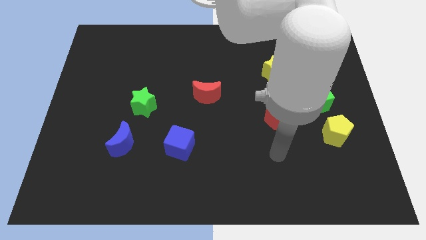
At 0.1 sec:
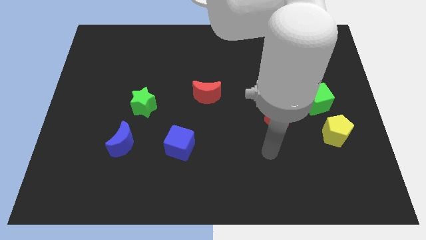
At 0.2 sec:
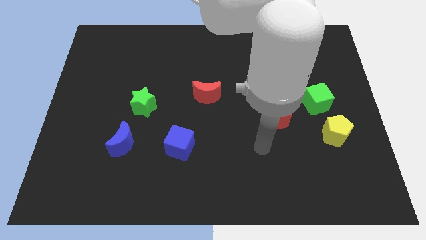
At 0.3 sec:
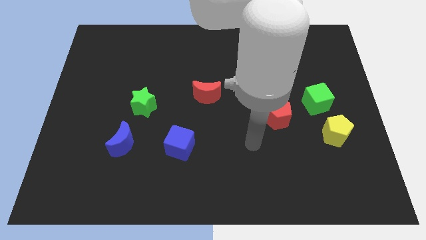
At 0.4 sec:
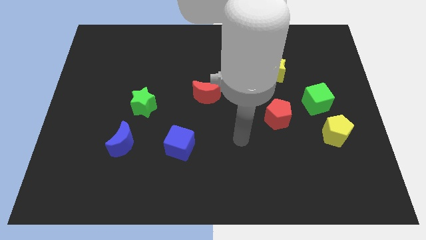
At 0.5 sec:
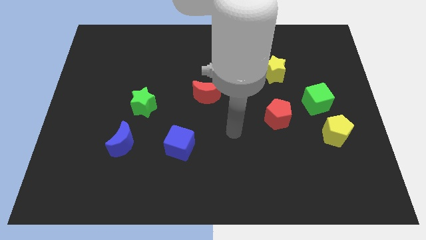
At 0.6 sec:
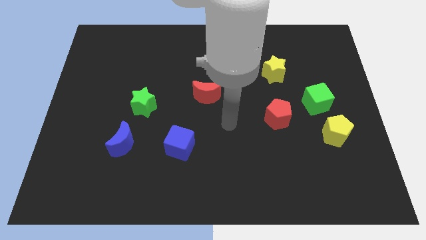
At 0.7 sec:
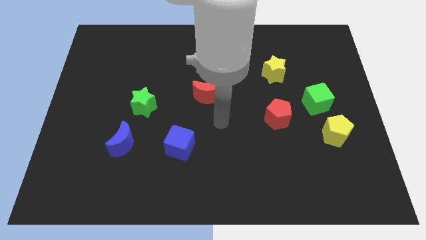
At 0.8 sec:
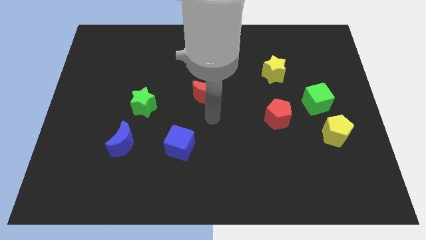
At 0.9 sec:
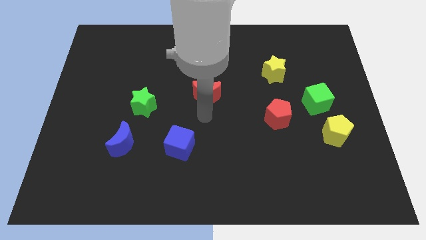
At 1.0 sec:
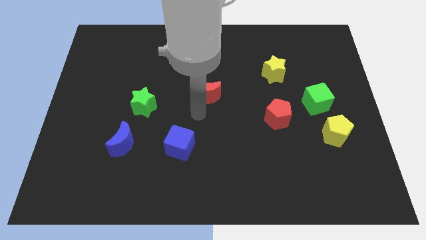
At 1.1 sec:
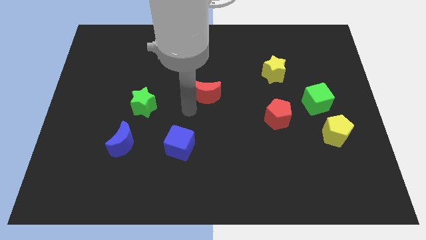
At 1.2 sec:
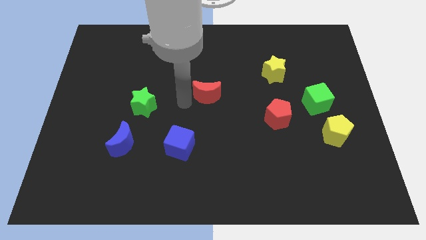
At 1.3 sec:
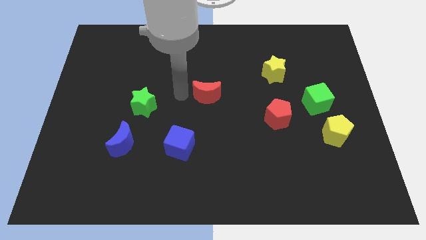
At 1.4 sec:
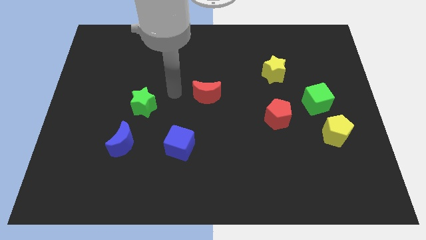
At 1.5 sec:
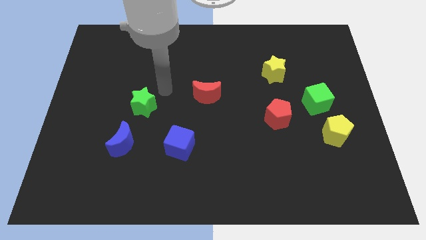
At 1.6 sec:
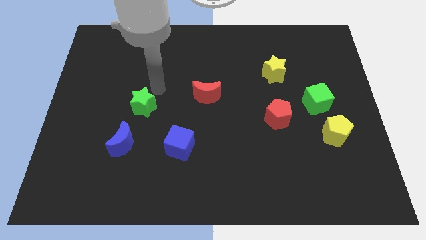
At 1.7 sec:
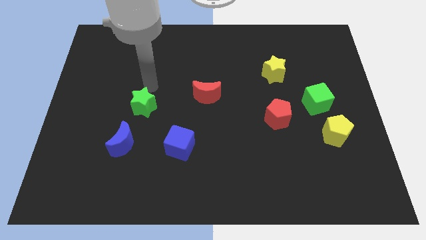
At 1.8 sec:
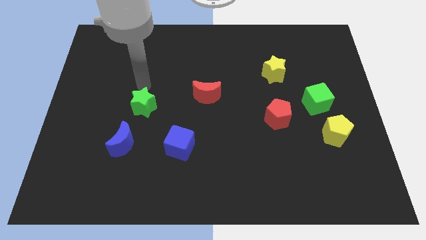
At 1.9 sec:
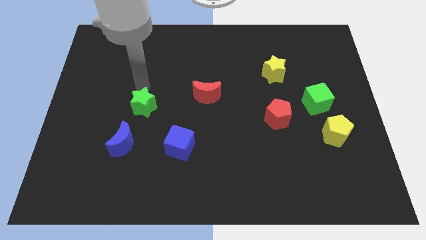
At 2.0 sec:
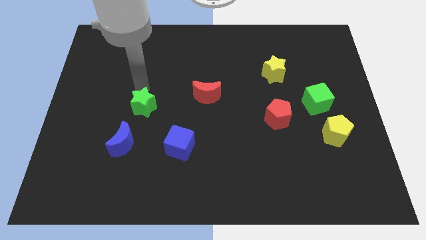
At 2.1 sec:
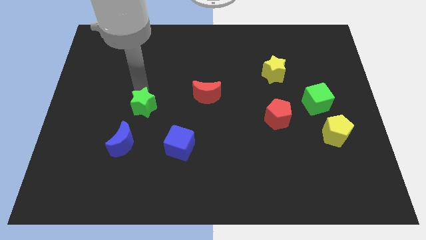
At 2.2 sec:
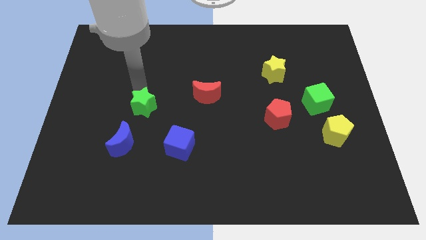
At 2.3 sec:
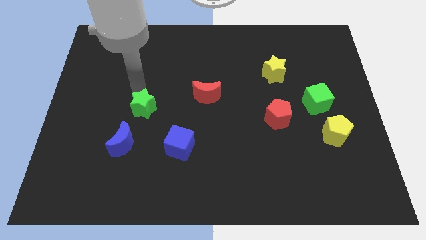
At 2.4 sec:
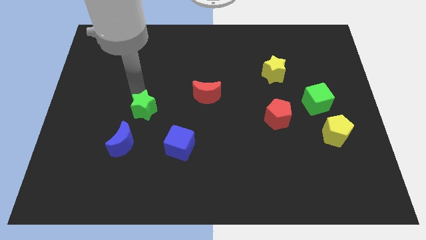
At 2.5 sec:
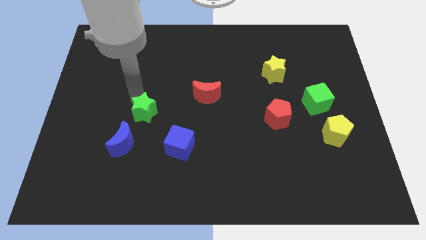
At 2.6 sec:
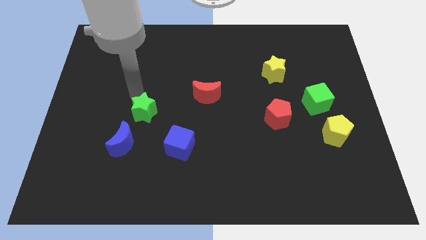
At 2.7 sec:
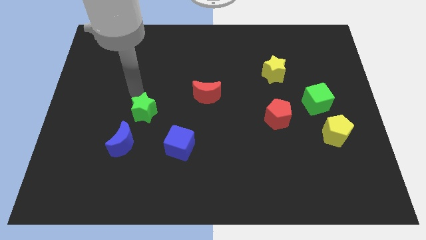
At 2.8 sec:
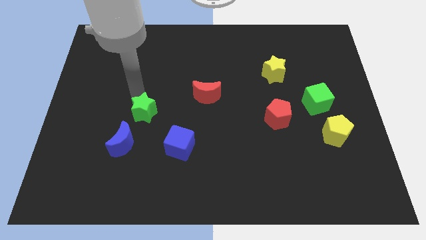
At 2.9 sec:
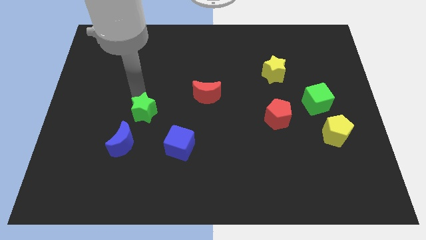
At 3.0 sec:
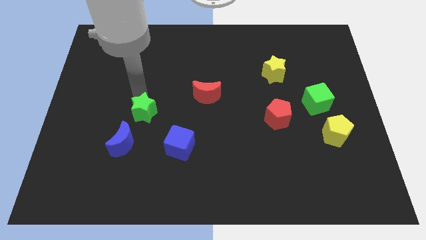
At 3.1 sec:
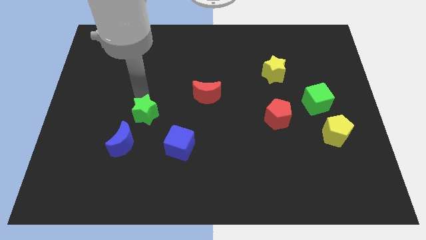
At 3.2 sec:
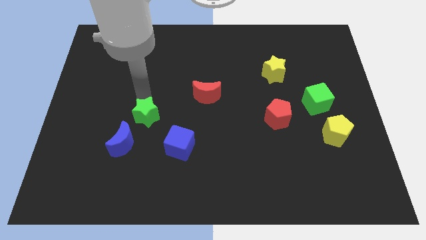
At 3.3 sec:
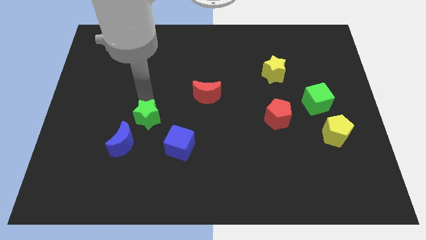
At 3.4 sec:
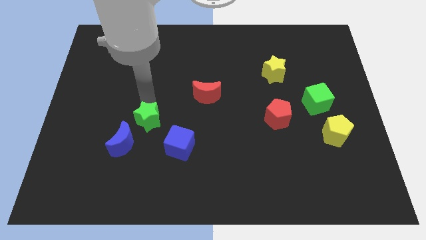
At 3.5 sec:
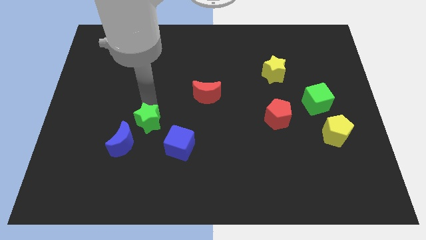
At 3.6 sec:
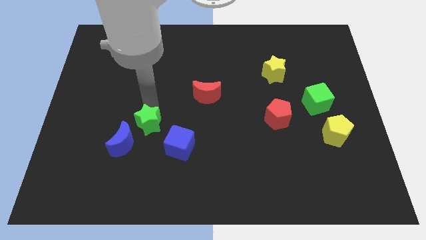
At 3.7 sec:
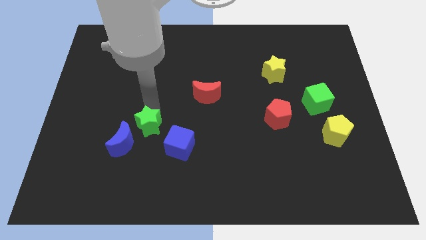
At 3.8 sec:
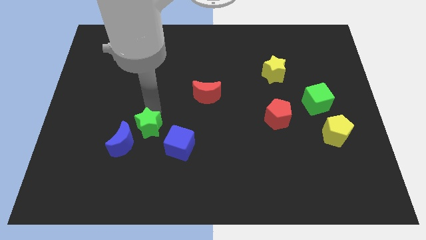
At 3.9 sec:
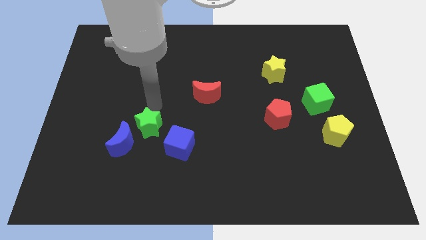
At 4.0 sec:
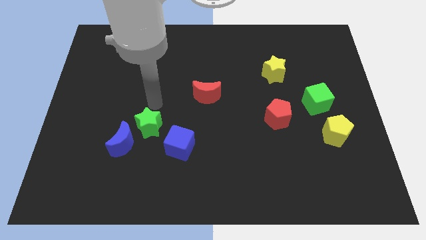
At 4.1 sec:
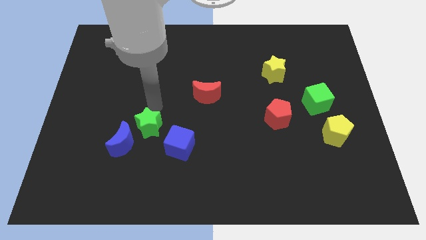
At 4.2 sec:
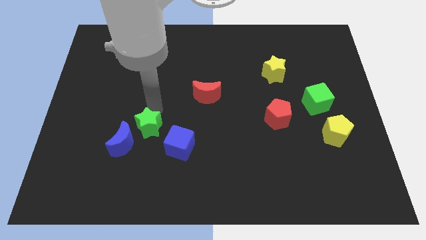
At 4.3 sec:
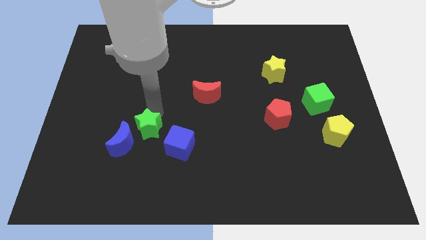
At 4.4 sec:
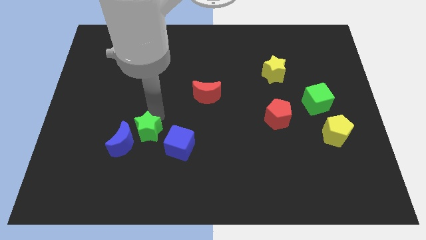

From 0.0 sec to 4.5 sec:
move the green star somewhat downwards

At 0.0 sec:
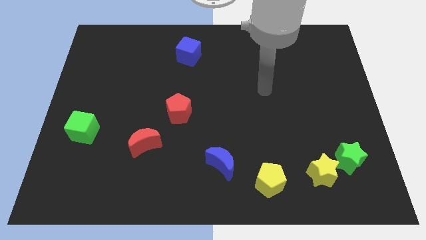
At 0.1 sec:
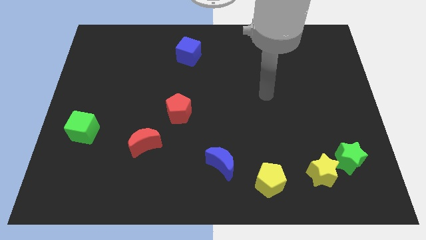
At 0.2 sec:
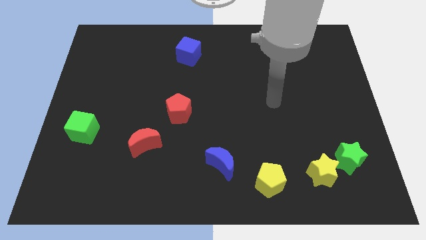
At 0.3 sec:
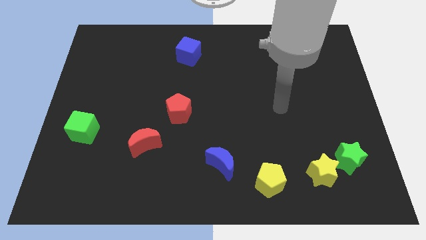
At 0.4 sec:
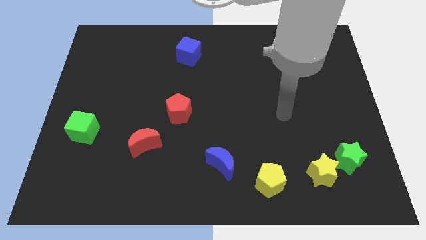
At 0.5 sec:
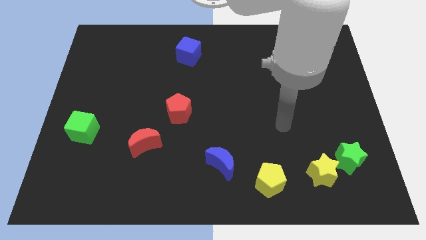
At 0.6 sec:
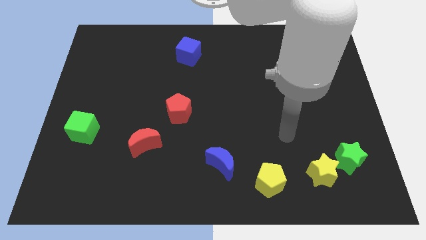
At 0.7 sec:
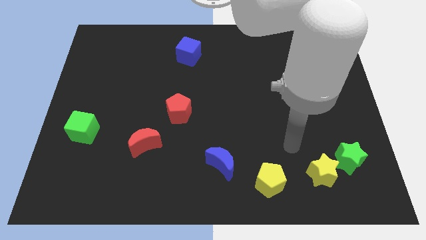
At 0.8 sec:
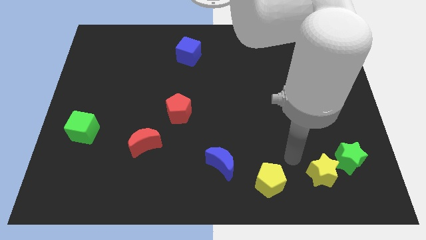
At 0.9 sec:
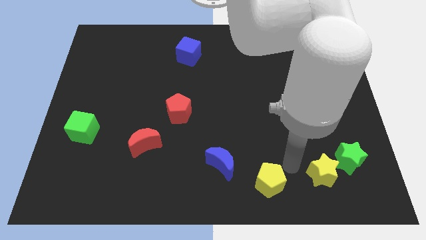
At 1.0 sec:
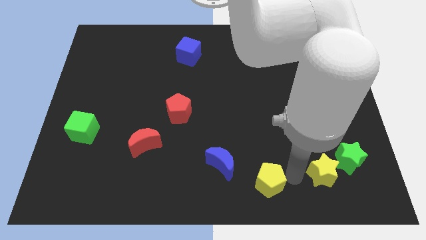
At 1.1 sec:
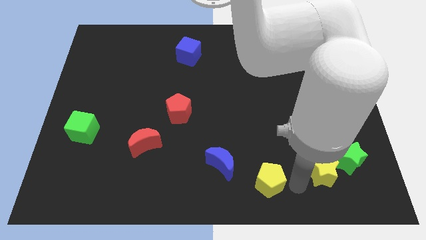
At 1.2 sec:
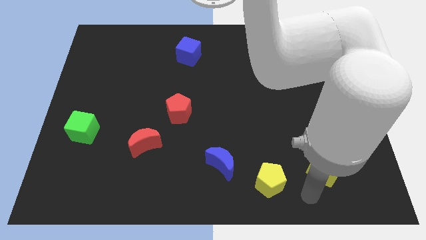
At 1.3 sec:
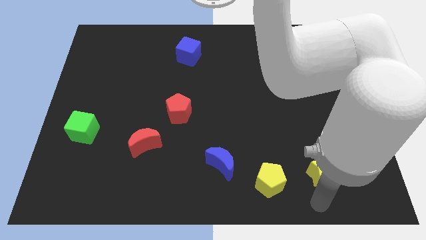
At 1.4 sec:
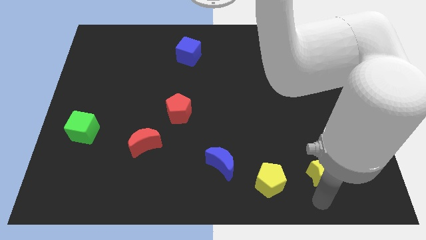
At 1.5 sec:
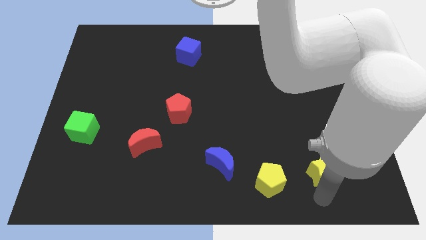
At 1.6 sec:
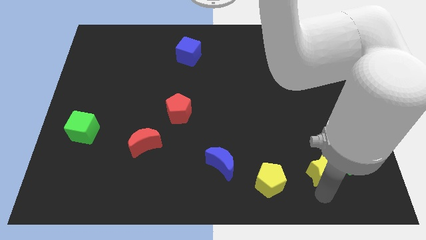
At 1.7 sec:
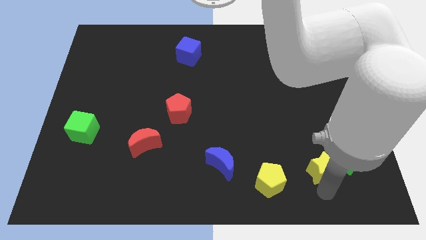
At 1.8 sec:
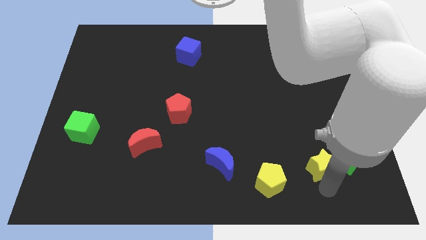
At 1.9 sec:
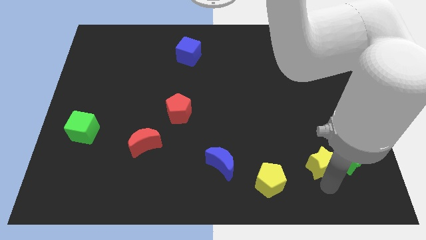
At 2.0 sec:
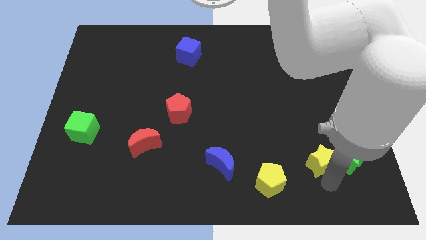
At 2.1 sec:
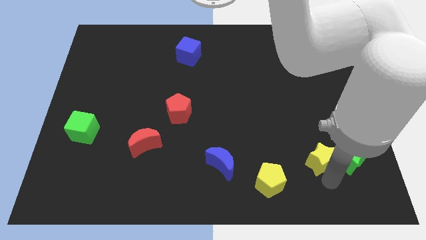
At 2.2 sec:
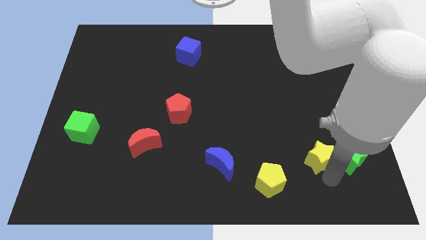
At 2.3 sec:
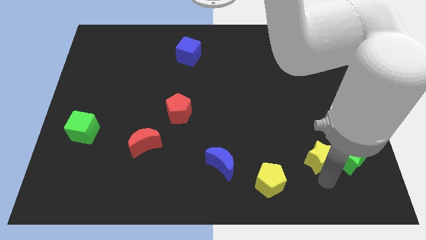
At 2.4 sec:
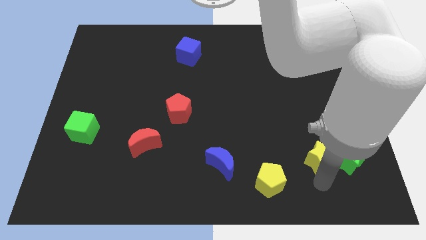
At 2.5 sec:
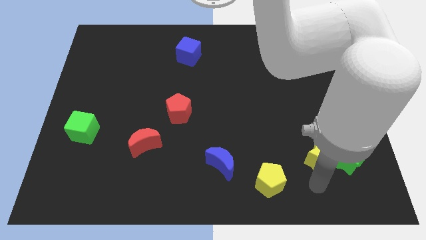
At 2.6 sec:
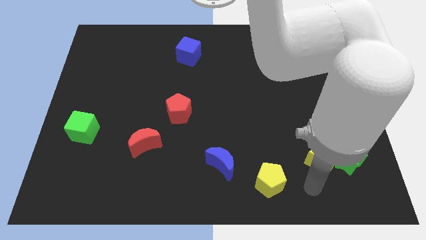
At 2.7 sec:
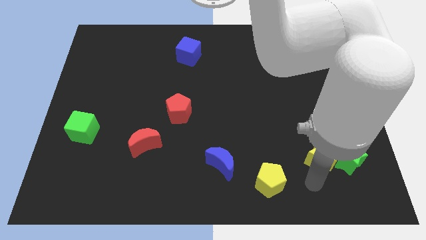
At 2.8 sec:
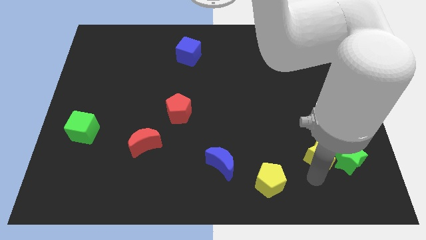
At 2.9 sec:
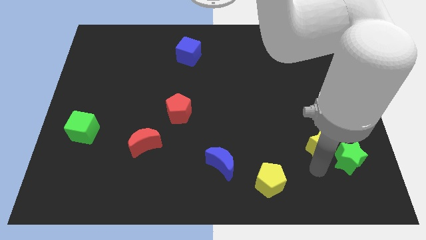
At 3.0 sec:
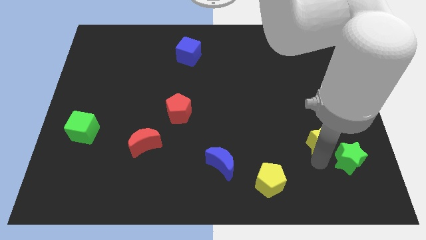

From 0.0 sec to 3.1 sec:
move the yellow star slightly up

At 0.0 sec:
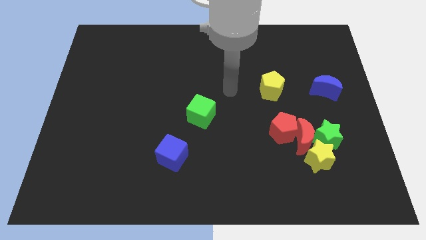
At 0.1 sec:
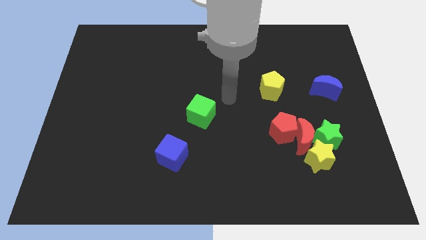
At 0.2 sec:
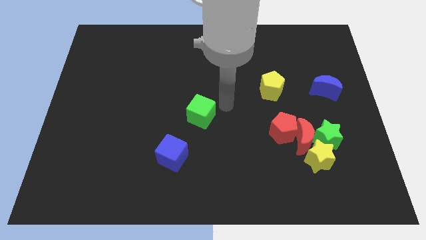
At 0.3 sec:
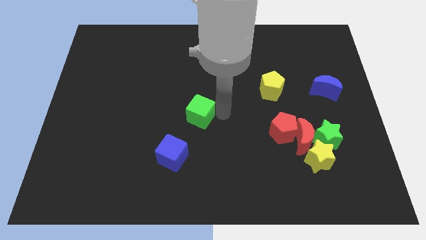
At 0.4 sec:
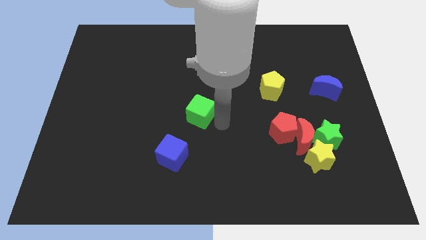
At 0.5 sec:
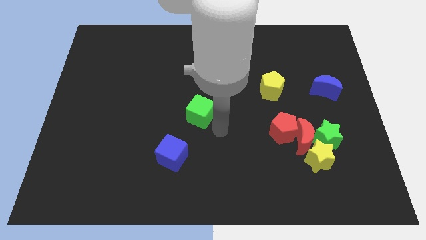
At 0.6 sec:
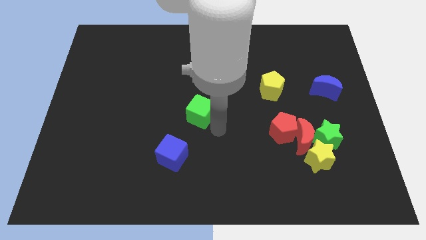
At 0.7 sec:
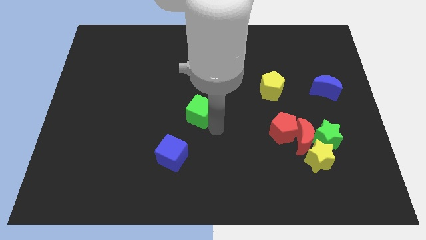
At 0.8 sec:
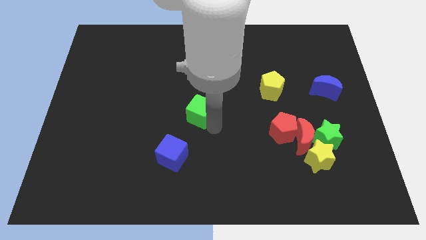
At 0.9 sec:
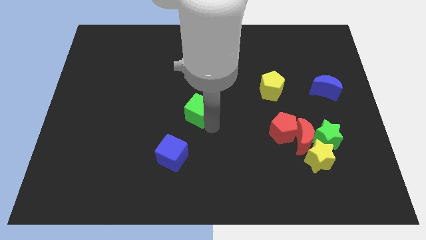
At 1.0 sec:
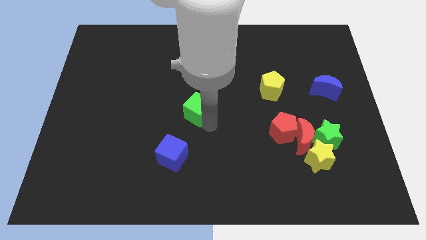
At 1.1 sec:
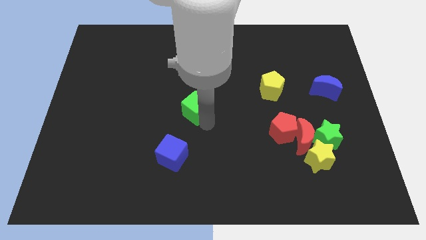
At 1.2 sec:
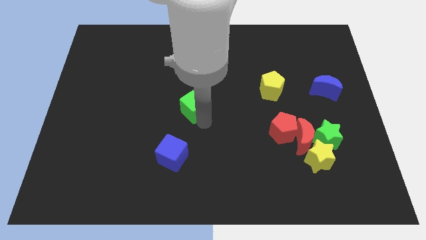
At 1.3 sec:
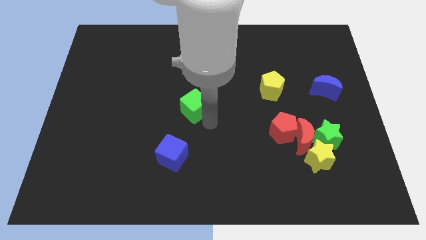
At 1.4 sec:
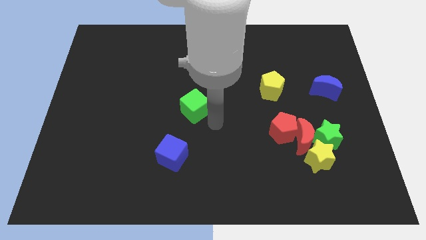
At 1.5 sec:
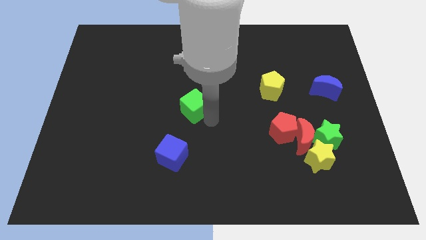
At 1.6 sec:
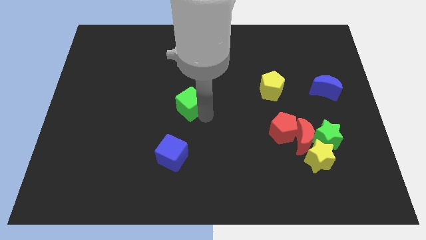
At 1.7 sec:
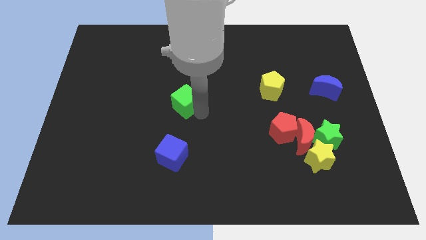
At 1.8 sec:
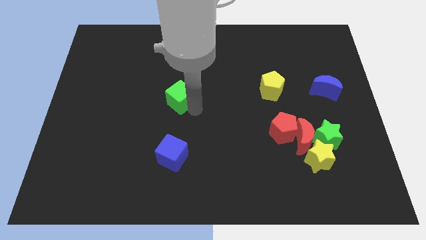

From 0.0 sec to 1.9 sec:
slightly move the green cube diagonally up and left
